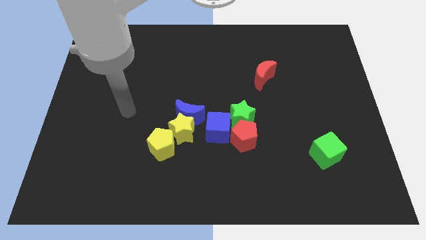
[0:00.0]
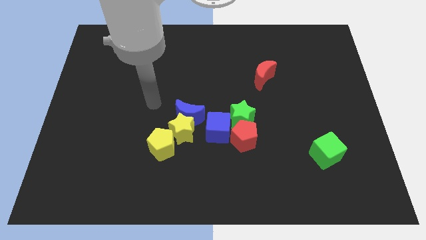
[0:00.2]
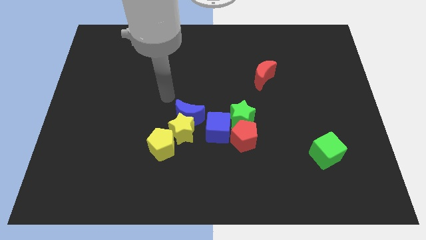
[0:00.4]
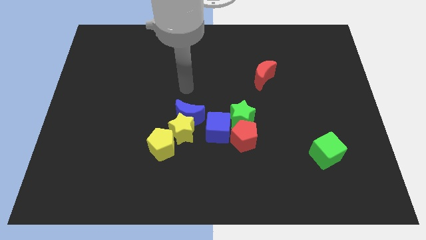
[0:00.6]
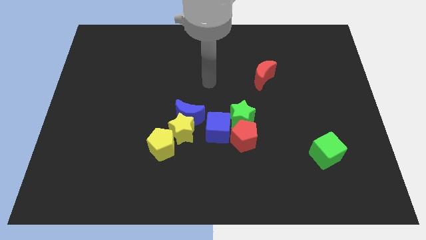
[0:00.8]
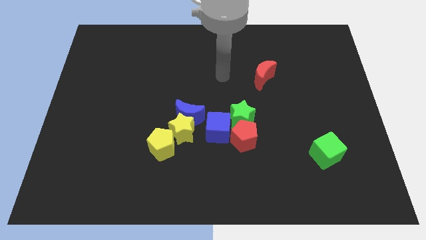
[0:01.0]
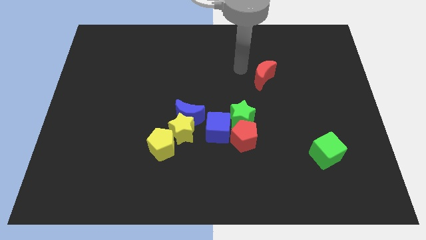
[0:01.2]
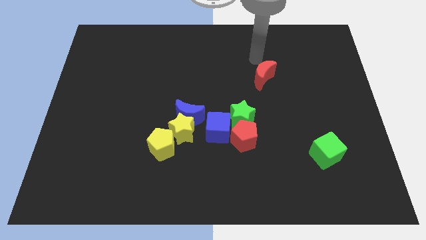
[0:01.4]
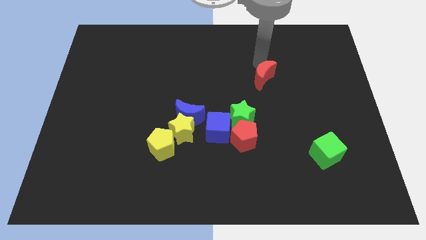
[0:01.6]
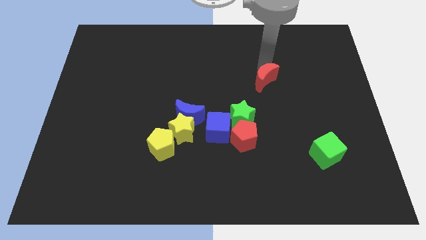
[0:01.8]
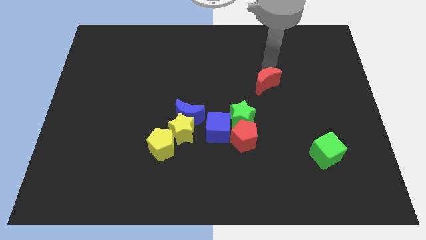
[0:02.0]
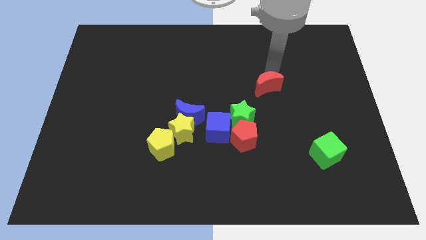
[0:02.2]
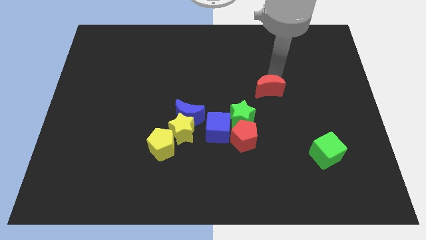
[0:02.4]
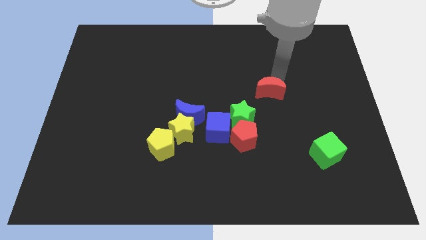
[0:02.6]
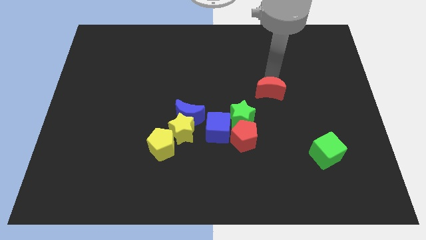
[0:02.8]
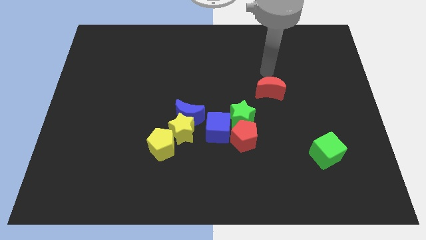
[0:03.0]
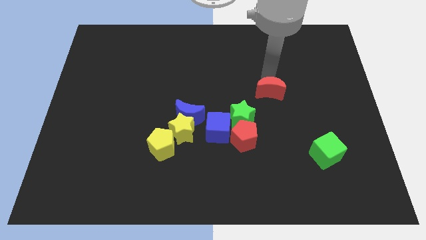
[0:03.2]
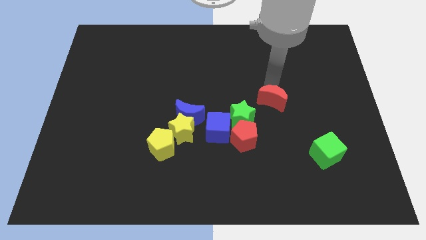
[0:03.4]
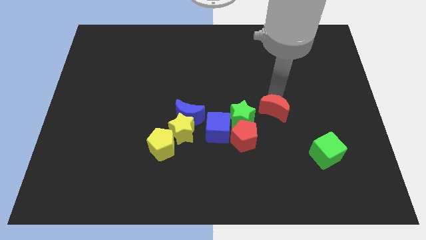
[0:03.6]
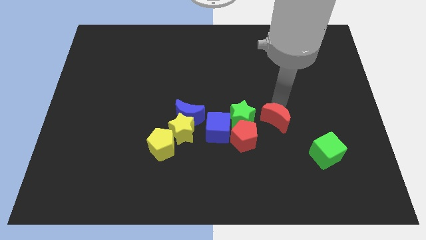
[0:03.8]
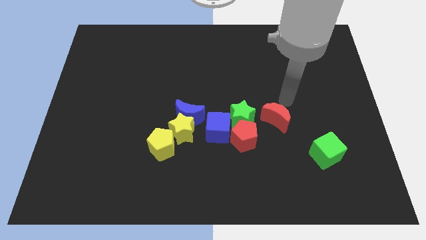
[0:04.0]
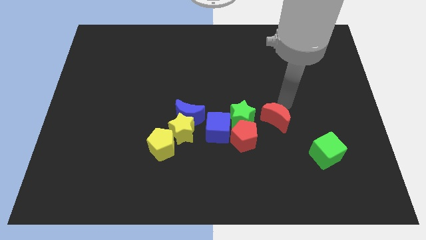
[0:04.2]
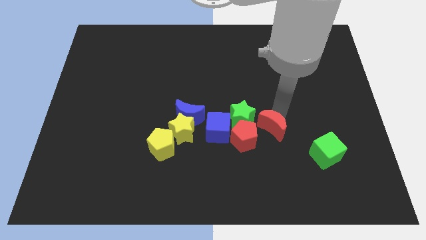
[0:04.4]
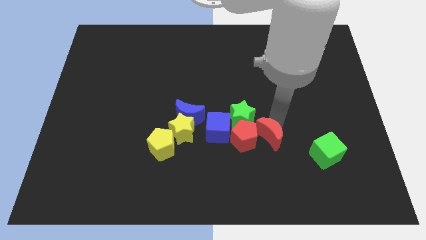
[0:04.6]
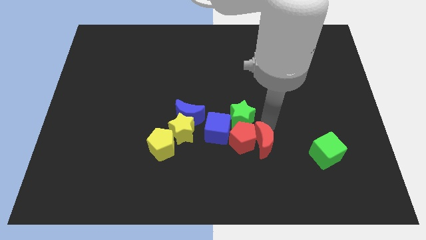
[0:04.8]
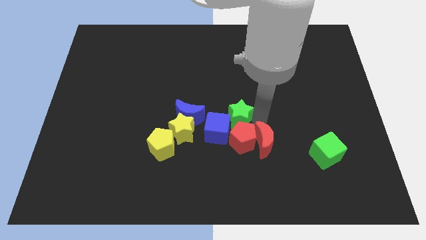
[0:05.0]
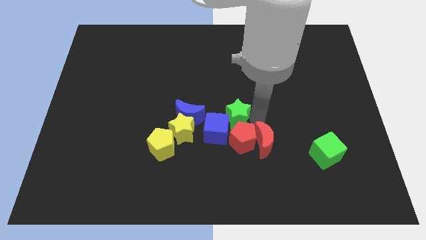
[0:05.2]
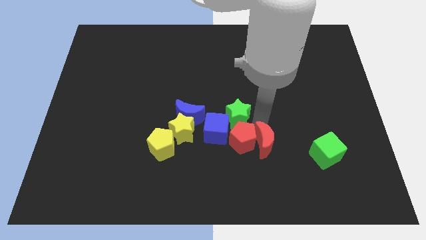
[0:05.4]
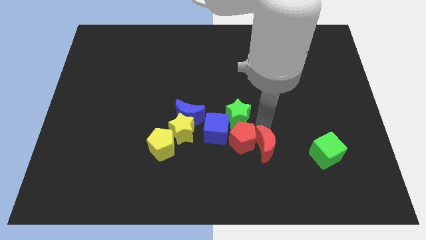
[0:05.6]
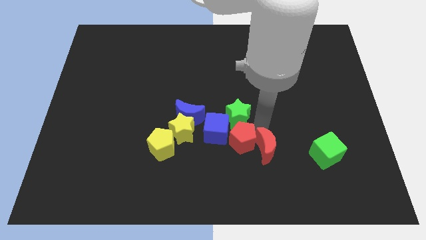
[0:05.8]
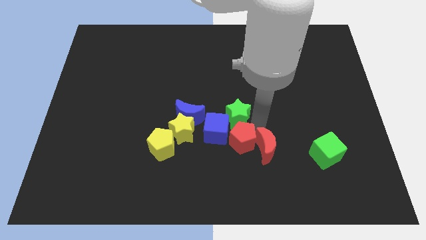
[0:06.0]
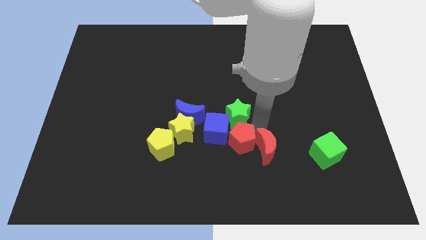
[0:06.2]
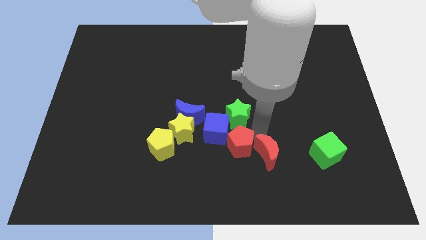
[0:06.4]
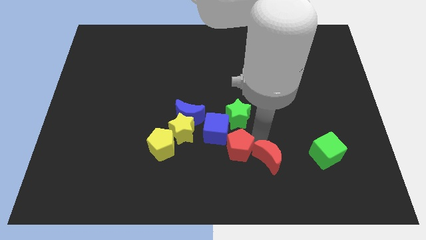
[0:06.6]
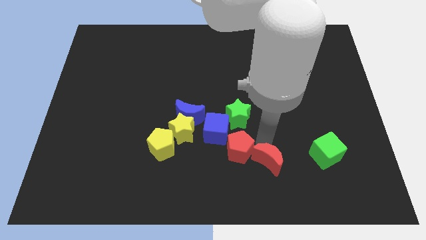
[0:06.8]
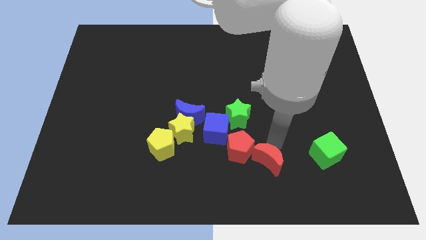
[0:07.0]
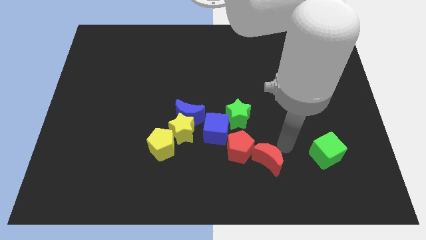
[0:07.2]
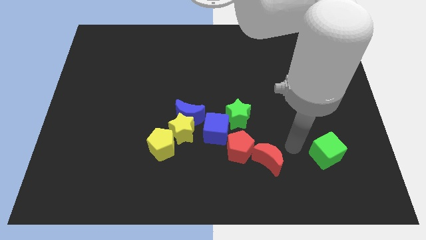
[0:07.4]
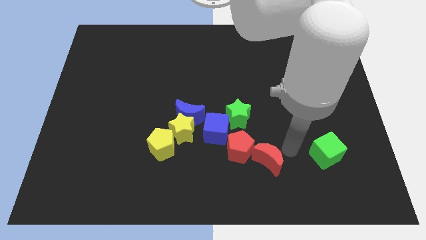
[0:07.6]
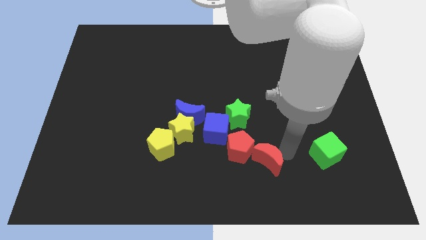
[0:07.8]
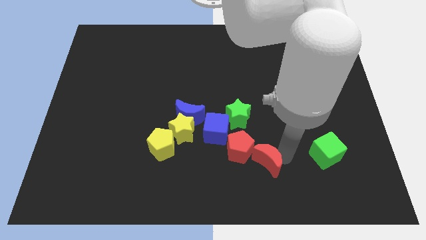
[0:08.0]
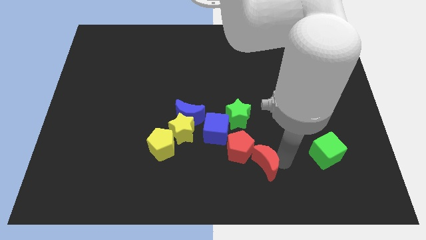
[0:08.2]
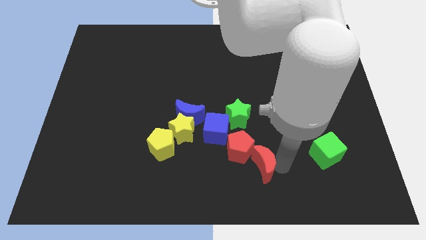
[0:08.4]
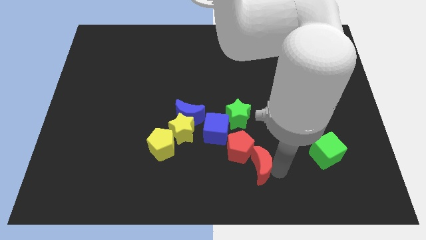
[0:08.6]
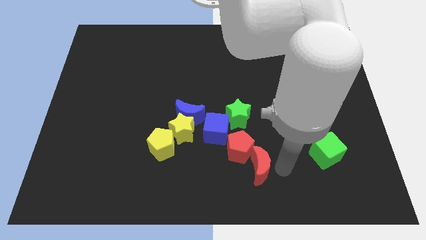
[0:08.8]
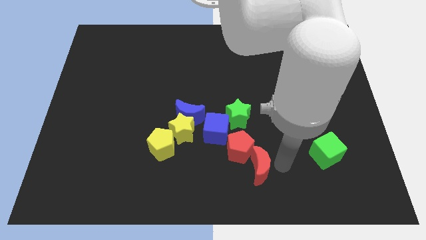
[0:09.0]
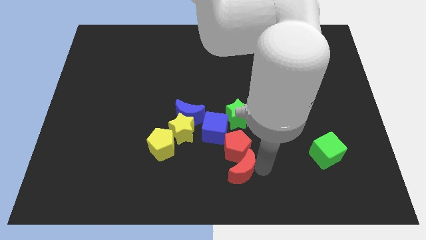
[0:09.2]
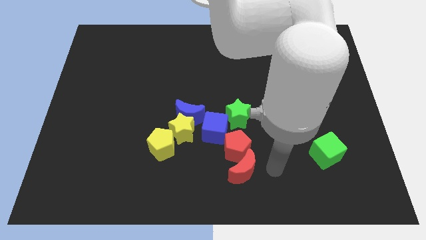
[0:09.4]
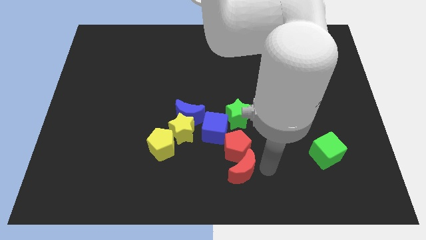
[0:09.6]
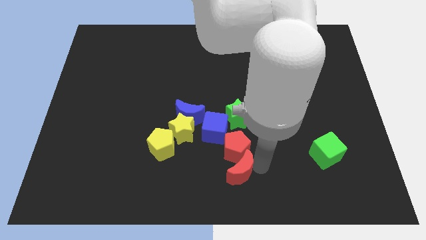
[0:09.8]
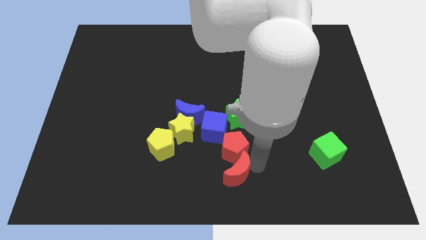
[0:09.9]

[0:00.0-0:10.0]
push the red moon to the bottom of the blue cube

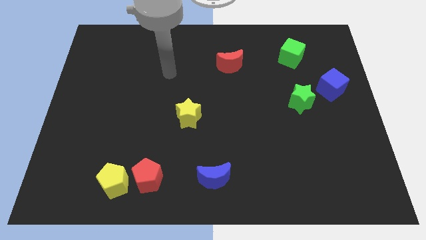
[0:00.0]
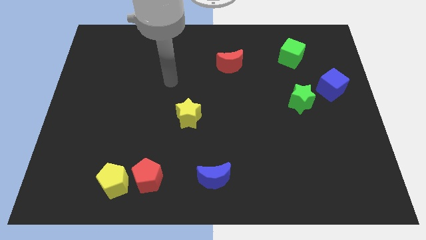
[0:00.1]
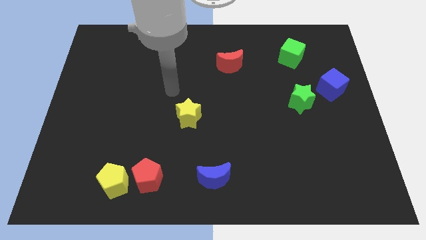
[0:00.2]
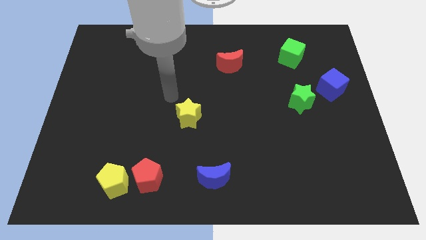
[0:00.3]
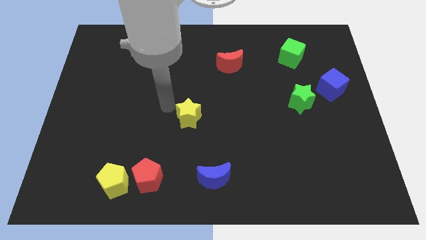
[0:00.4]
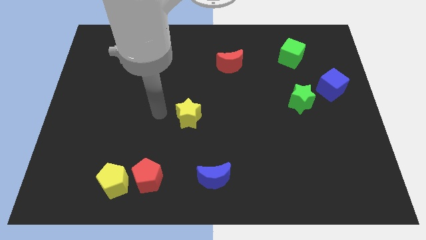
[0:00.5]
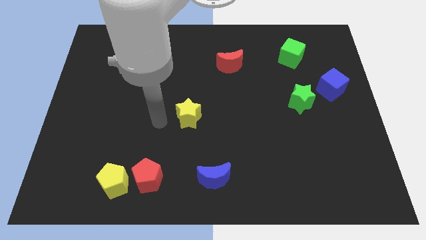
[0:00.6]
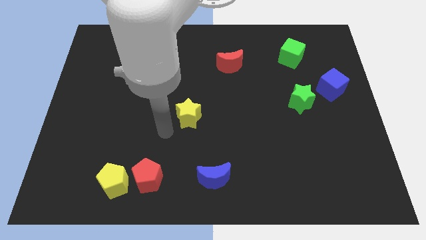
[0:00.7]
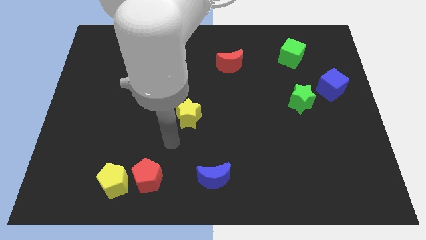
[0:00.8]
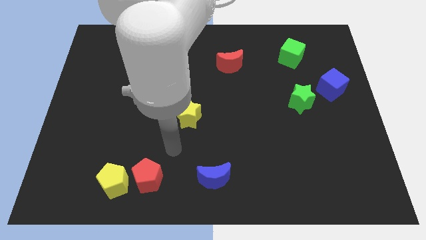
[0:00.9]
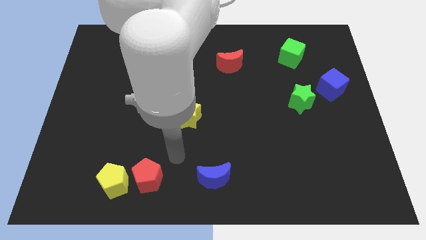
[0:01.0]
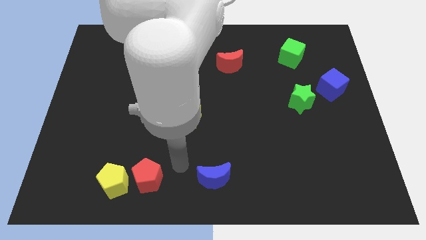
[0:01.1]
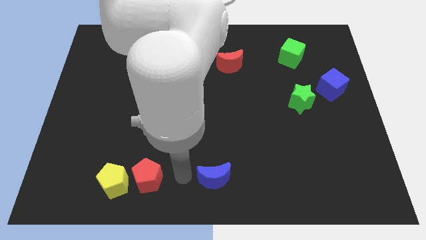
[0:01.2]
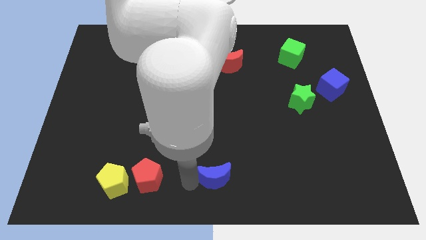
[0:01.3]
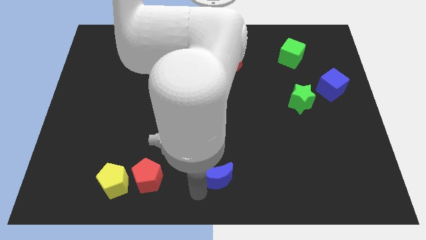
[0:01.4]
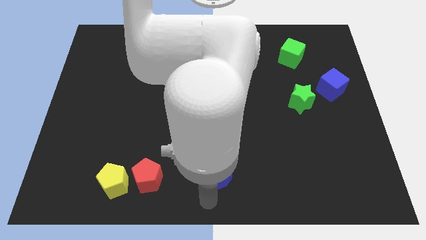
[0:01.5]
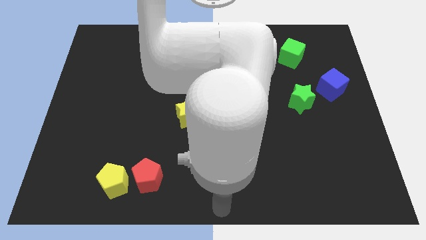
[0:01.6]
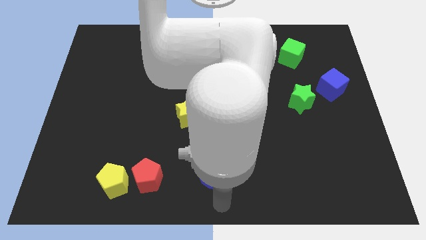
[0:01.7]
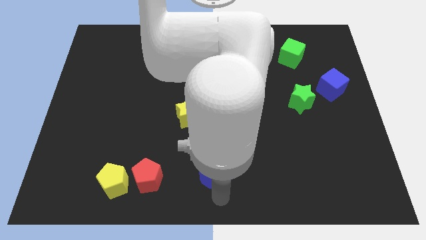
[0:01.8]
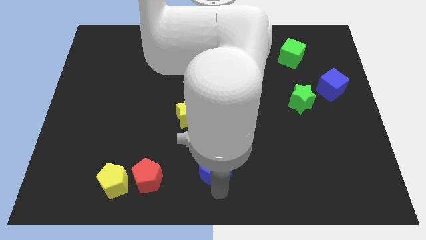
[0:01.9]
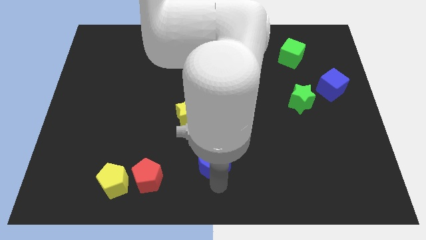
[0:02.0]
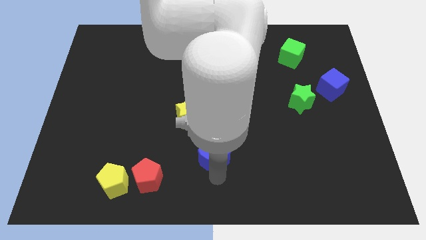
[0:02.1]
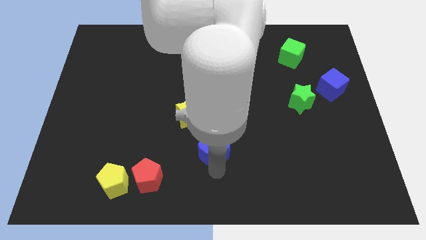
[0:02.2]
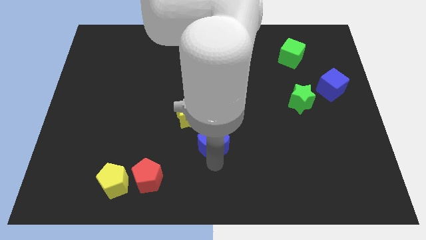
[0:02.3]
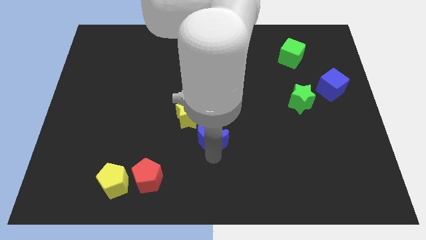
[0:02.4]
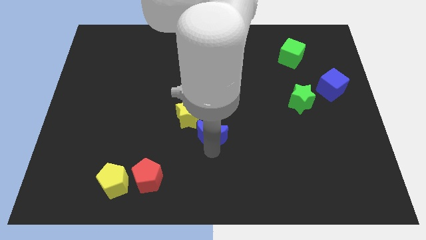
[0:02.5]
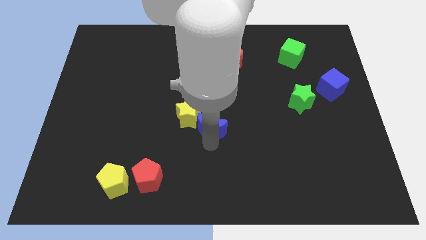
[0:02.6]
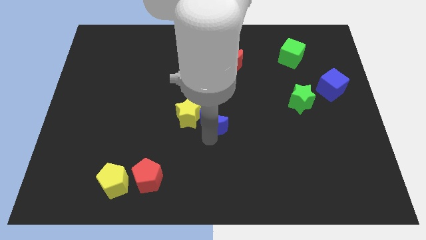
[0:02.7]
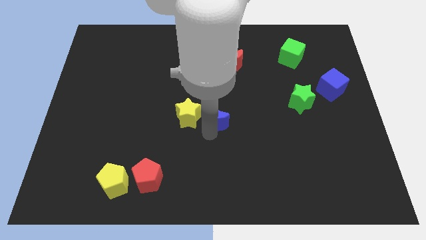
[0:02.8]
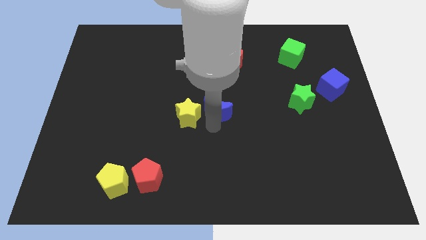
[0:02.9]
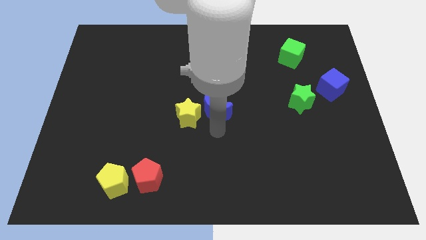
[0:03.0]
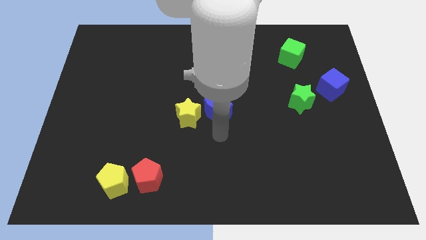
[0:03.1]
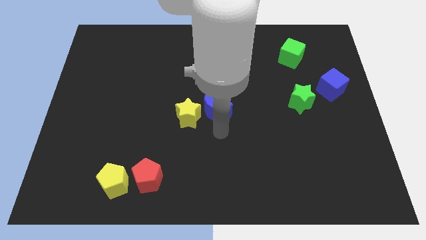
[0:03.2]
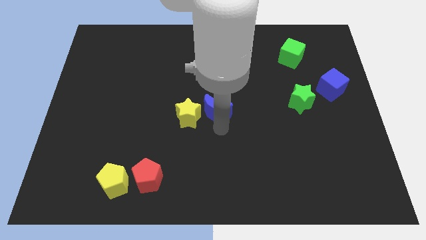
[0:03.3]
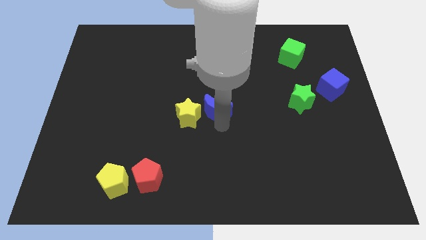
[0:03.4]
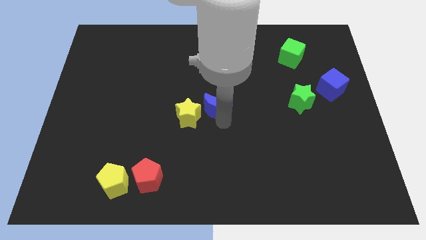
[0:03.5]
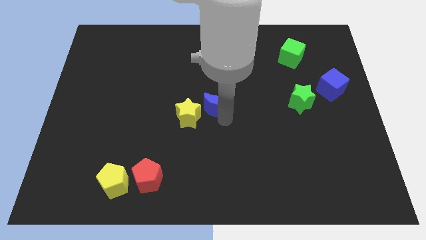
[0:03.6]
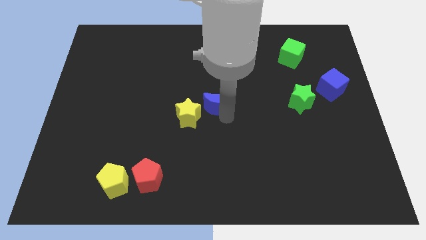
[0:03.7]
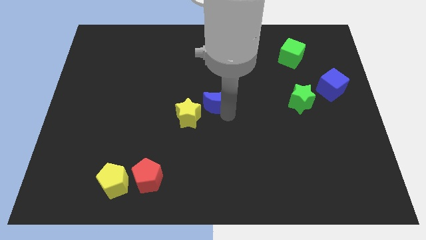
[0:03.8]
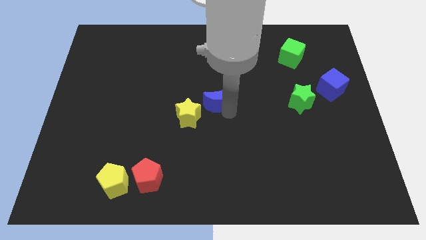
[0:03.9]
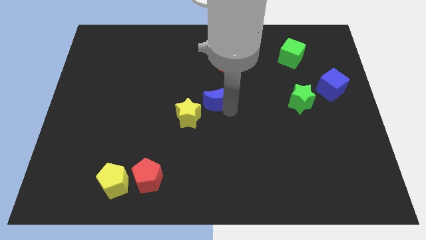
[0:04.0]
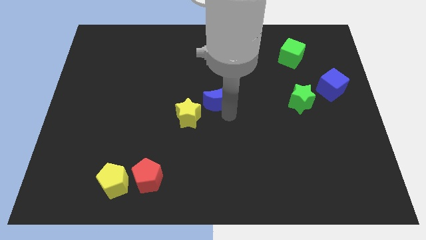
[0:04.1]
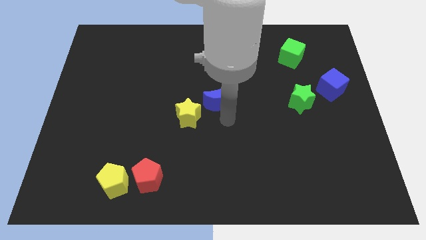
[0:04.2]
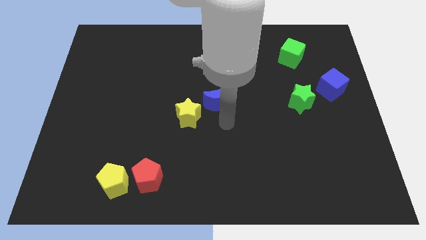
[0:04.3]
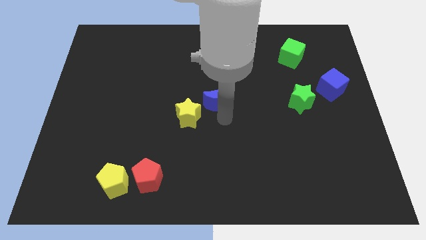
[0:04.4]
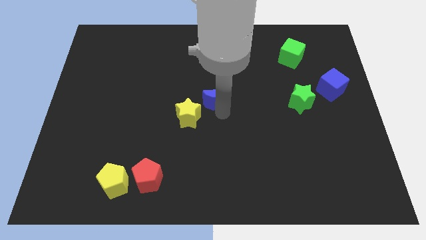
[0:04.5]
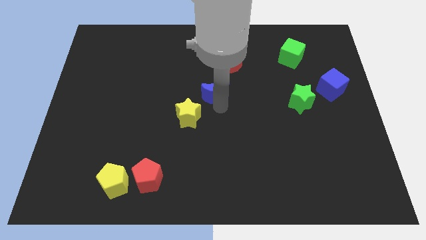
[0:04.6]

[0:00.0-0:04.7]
put the blue moon to the bottom left side of the red moon
